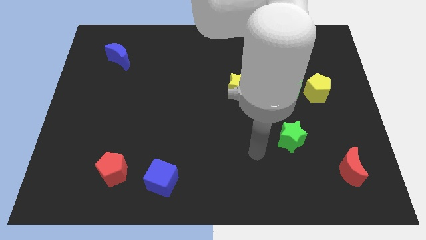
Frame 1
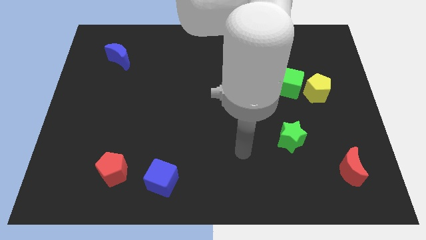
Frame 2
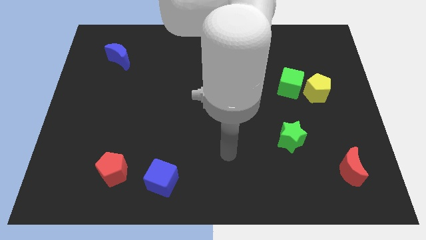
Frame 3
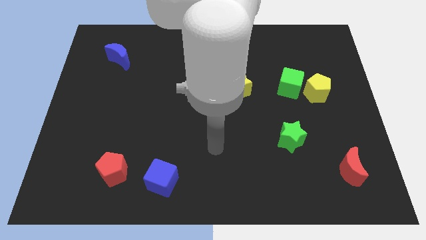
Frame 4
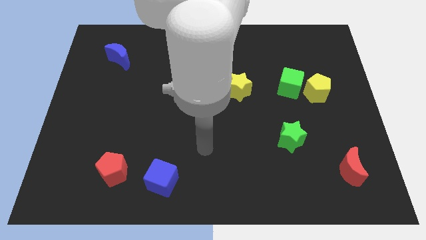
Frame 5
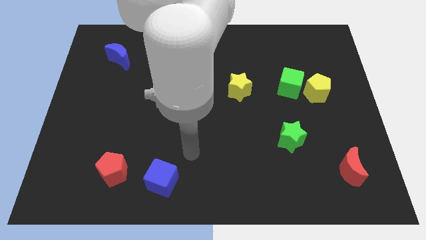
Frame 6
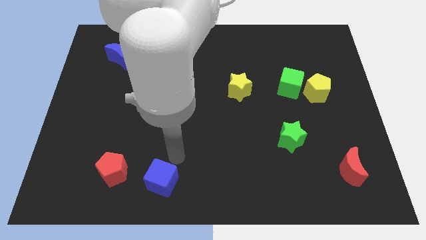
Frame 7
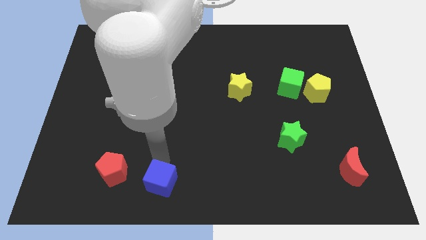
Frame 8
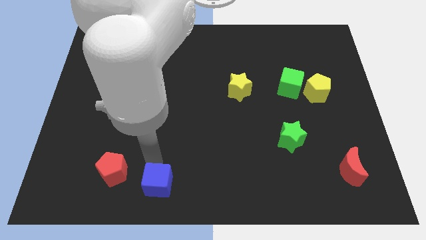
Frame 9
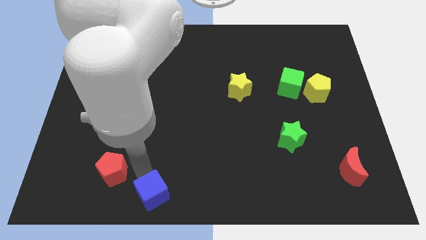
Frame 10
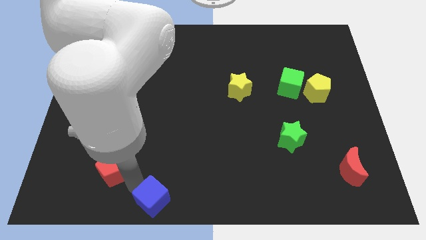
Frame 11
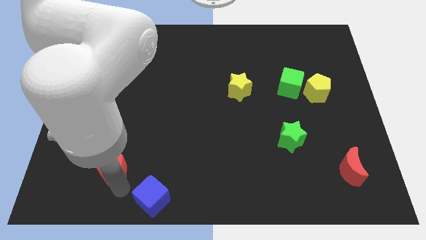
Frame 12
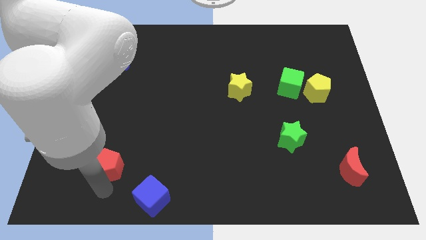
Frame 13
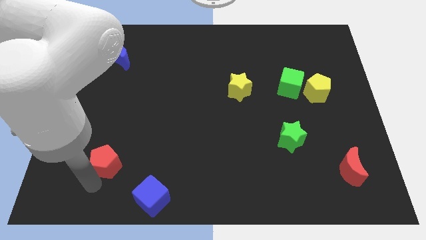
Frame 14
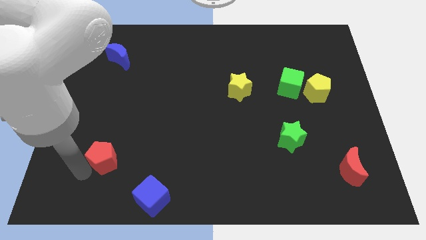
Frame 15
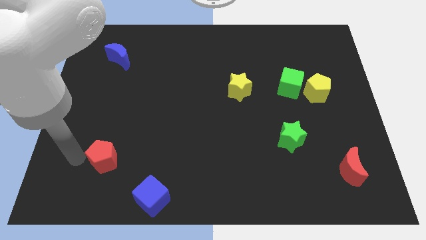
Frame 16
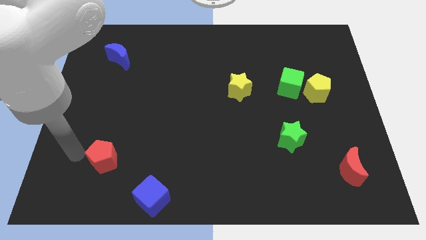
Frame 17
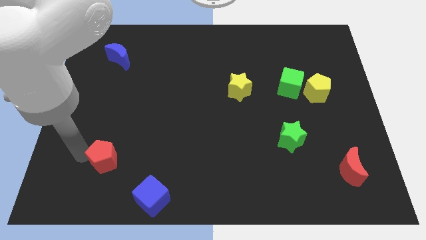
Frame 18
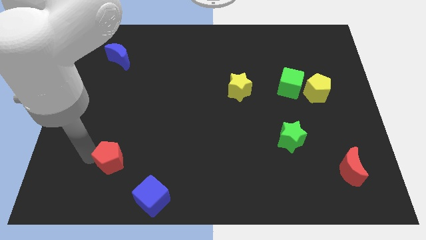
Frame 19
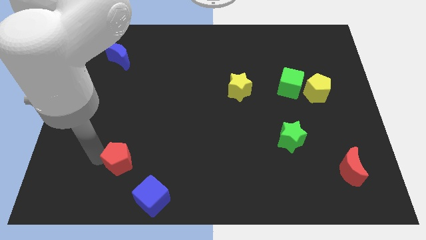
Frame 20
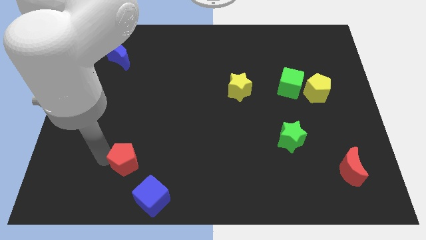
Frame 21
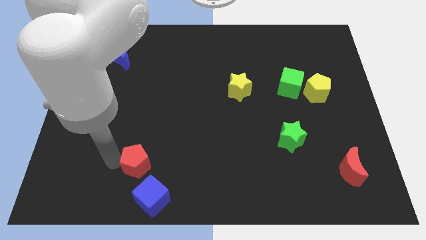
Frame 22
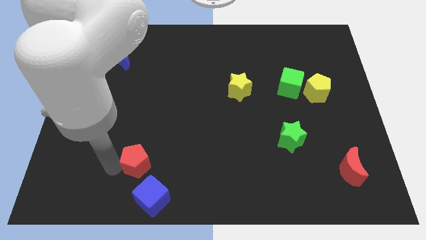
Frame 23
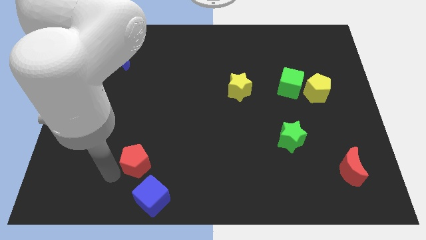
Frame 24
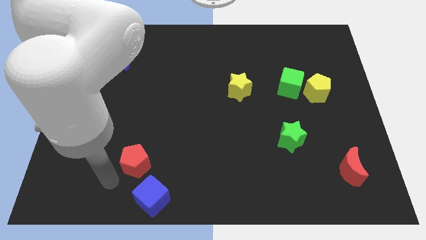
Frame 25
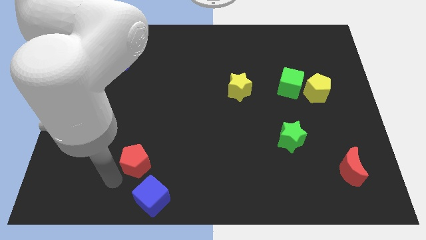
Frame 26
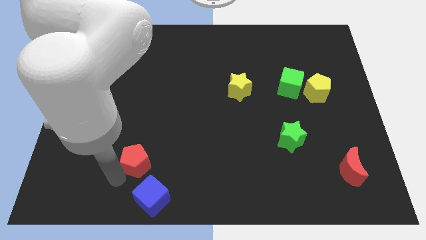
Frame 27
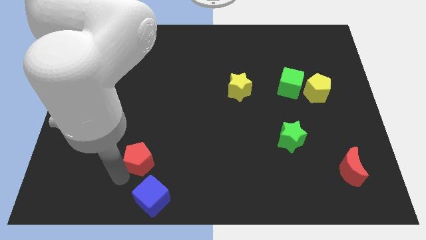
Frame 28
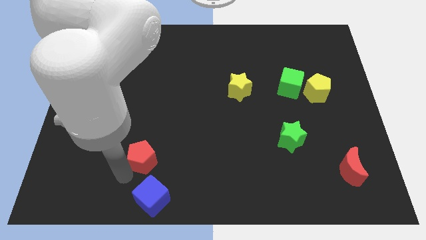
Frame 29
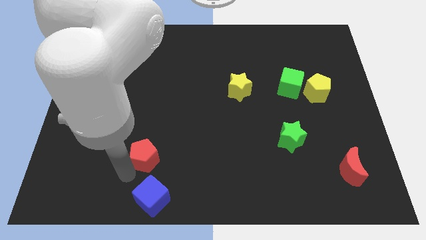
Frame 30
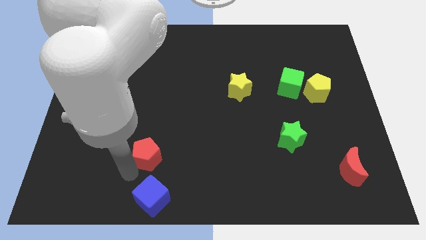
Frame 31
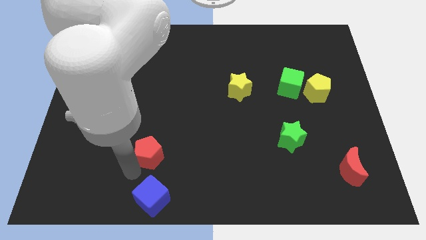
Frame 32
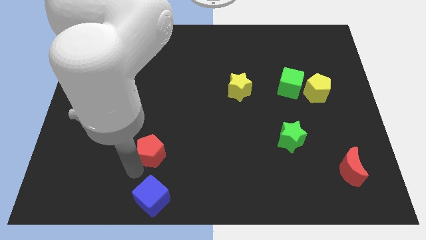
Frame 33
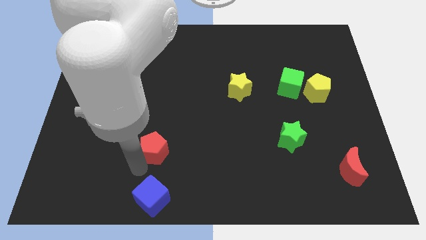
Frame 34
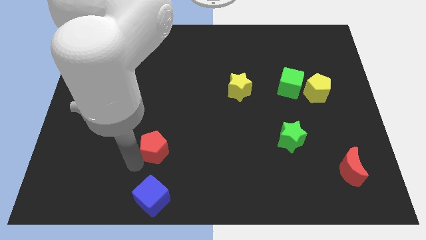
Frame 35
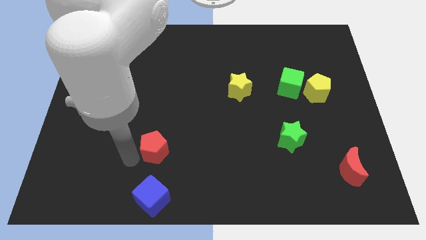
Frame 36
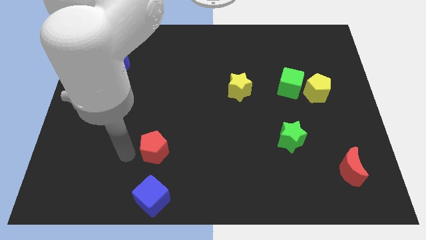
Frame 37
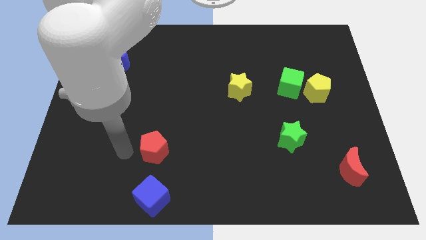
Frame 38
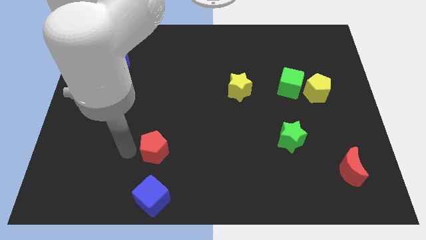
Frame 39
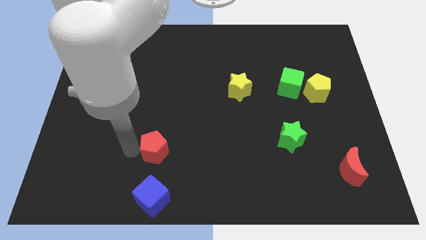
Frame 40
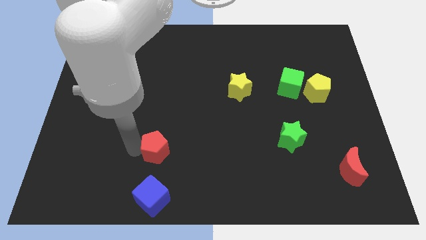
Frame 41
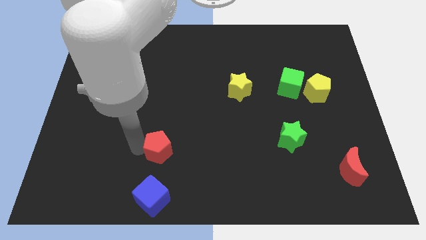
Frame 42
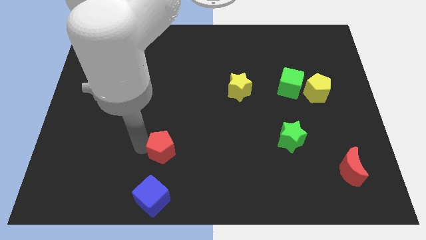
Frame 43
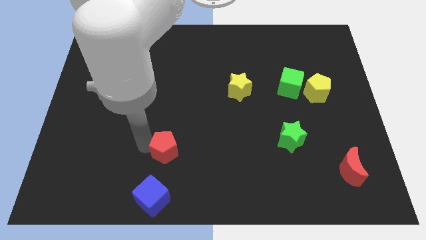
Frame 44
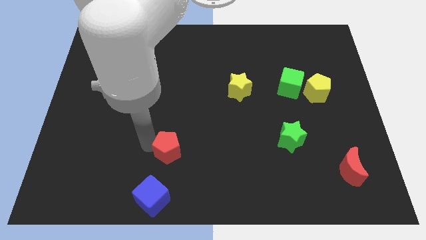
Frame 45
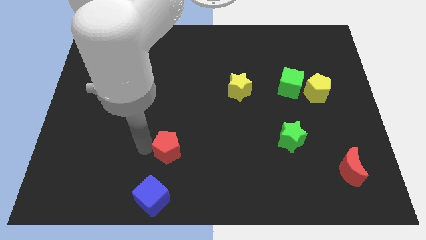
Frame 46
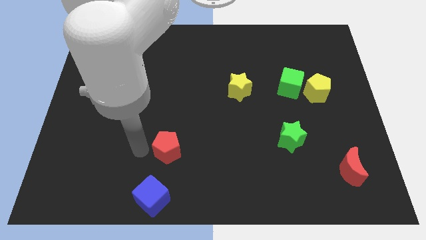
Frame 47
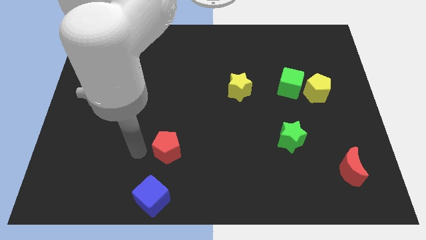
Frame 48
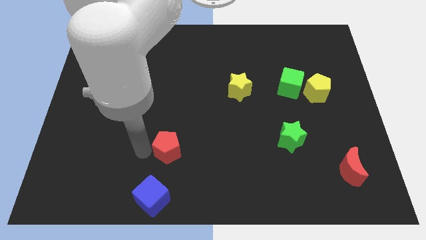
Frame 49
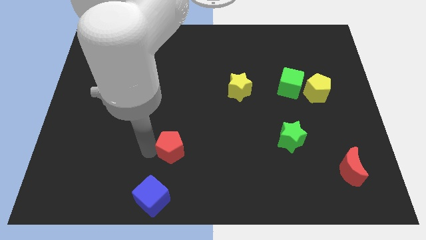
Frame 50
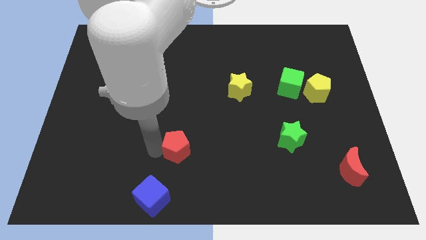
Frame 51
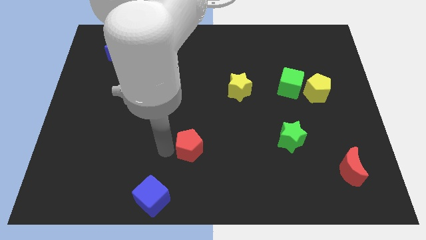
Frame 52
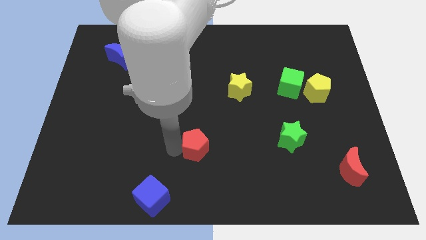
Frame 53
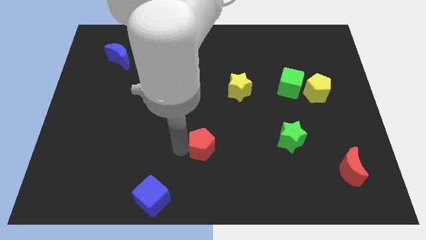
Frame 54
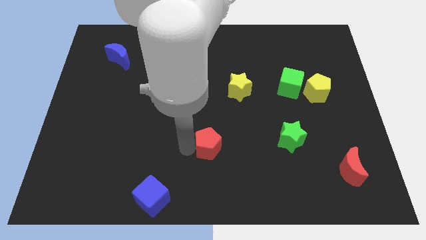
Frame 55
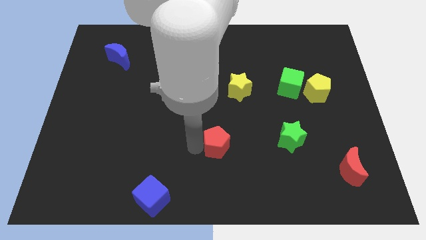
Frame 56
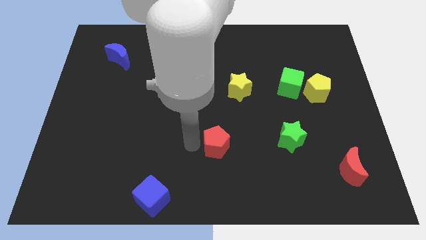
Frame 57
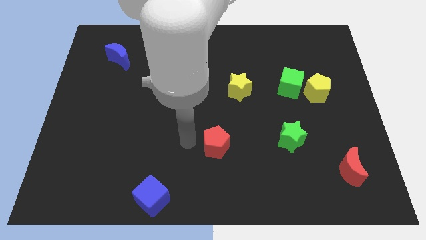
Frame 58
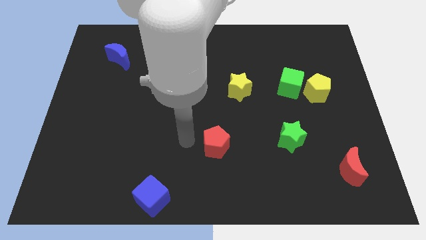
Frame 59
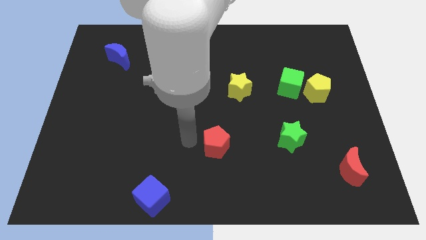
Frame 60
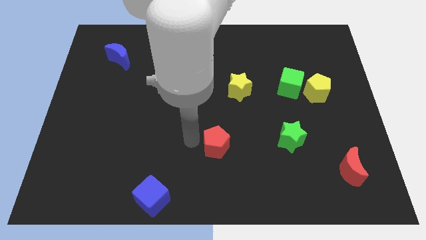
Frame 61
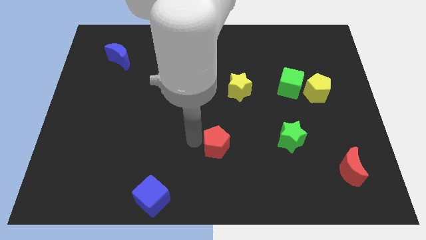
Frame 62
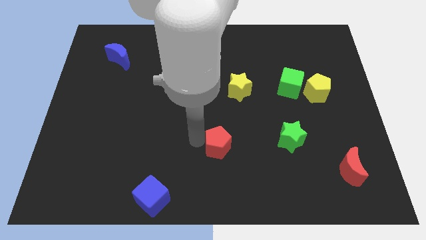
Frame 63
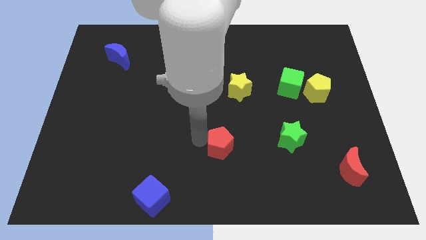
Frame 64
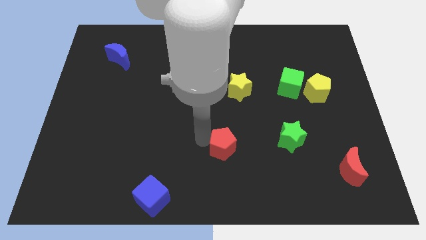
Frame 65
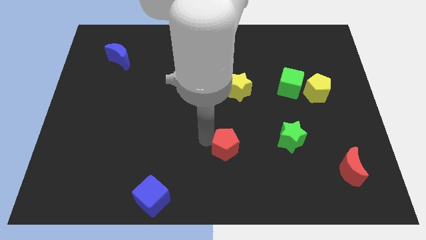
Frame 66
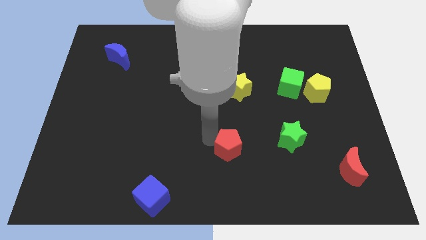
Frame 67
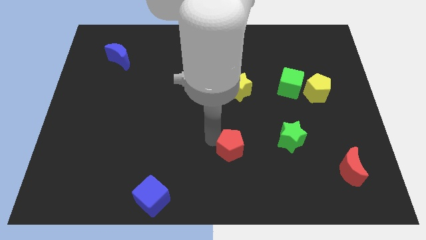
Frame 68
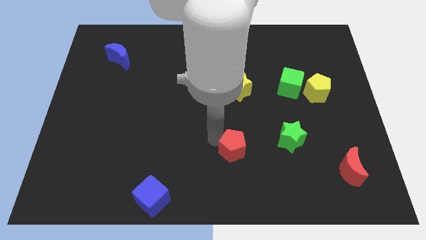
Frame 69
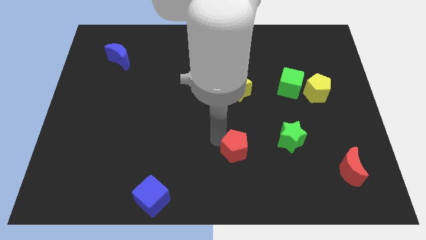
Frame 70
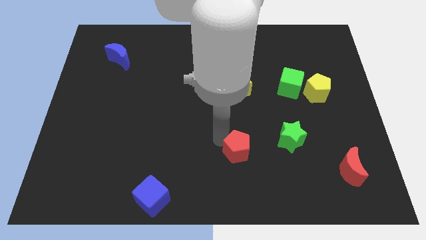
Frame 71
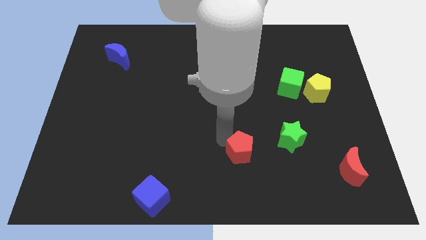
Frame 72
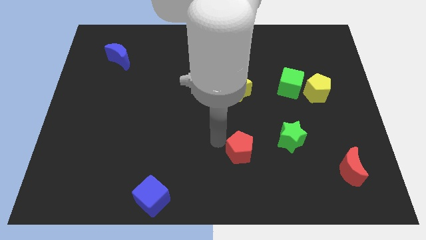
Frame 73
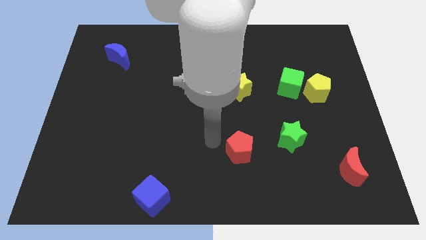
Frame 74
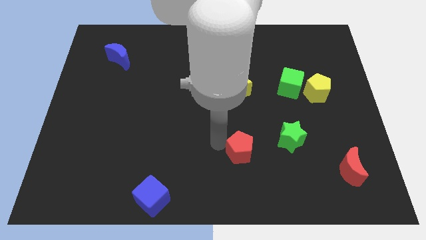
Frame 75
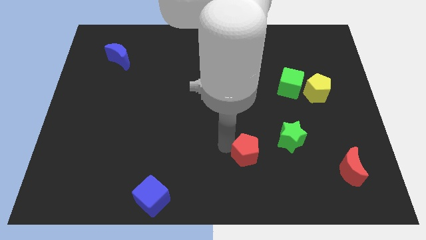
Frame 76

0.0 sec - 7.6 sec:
slide the red pentagon to the bottom left of the green star

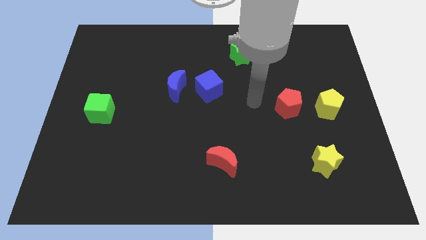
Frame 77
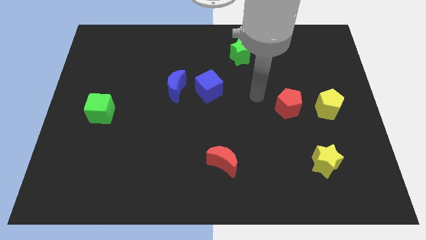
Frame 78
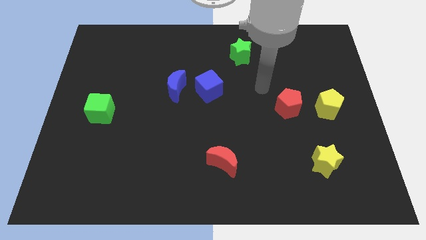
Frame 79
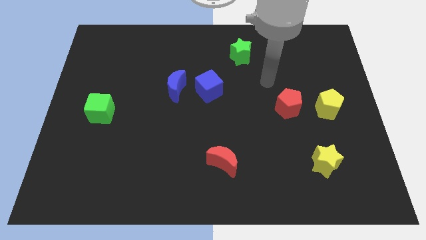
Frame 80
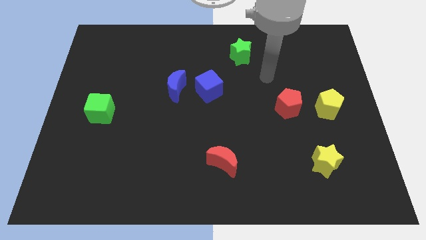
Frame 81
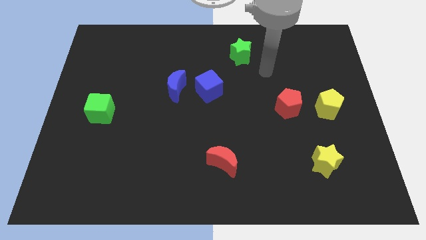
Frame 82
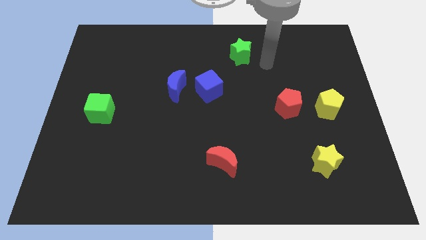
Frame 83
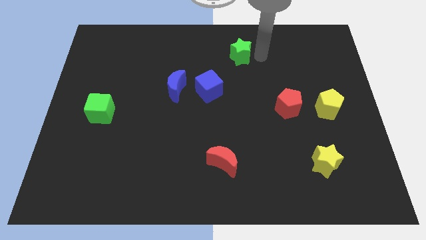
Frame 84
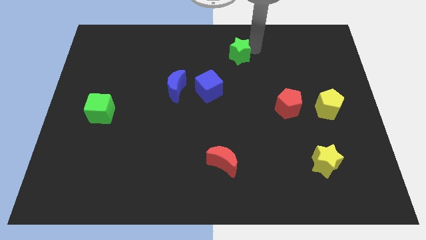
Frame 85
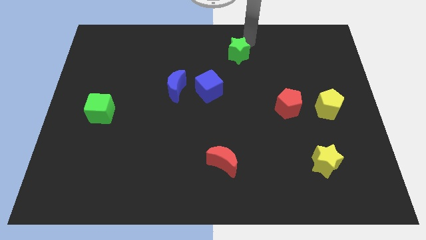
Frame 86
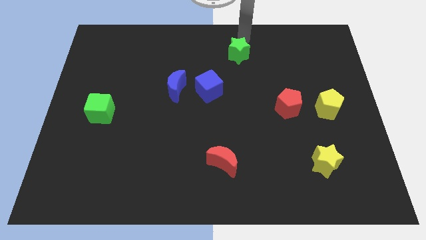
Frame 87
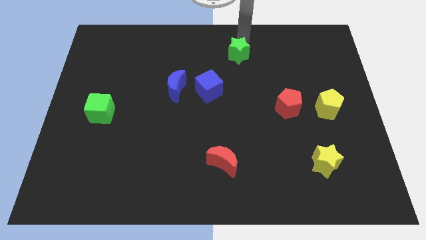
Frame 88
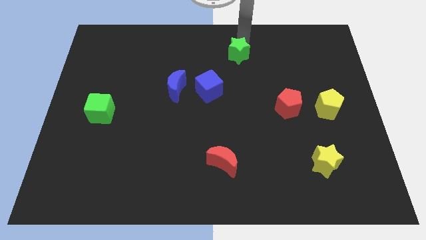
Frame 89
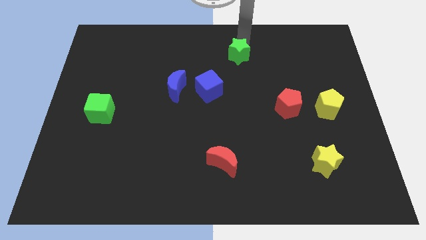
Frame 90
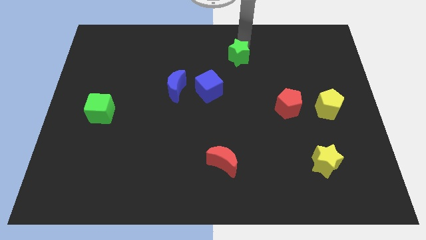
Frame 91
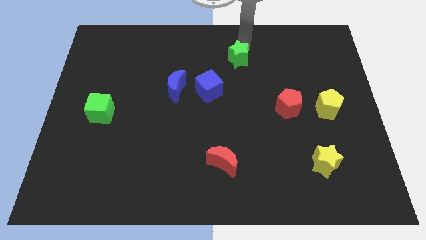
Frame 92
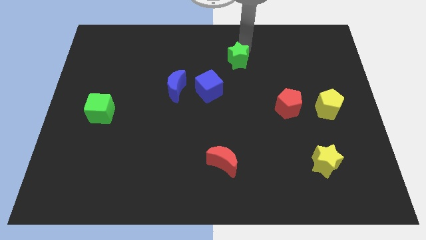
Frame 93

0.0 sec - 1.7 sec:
put the green star to the top right of the blue cube
